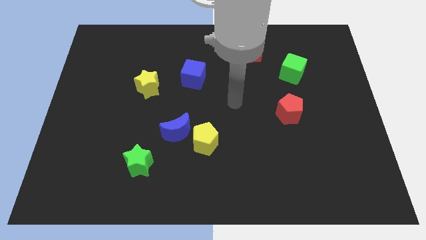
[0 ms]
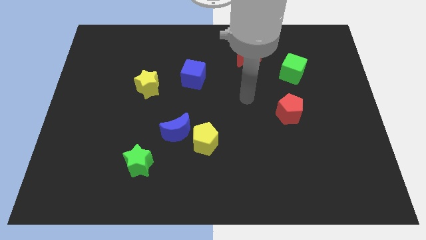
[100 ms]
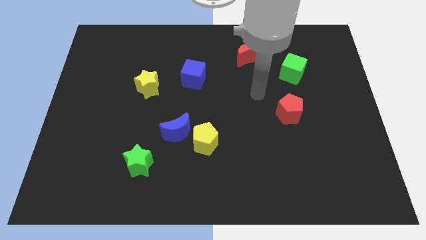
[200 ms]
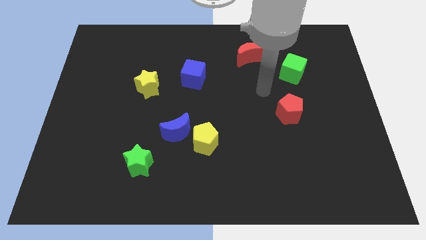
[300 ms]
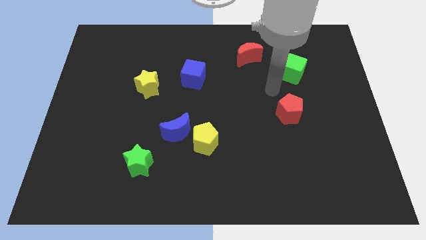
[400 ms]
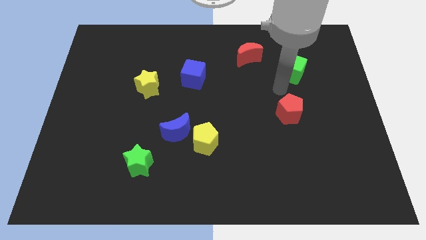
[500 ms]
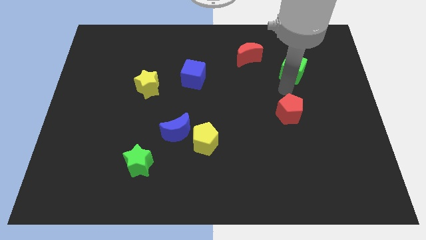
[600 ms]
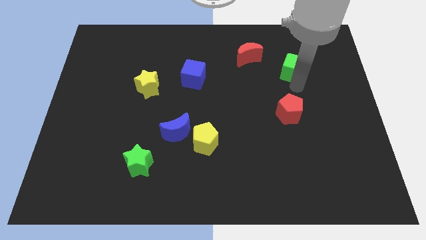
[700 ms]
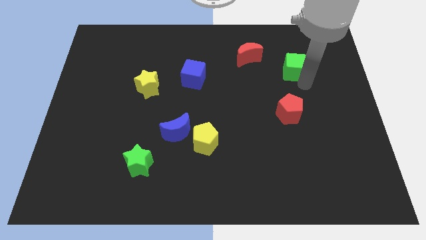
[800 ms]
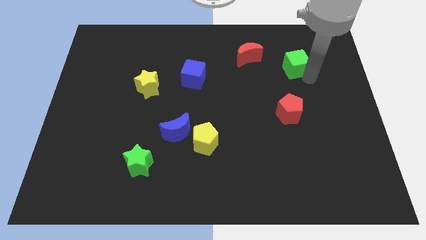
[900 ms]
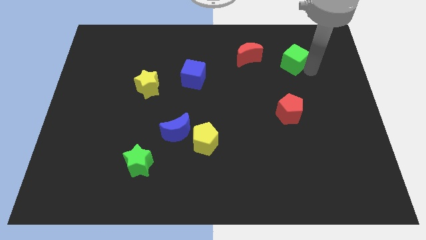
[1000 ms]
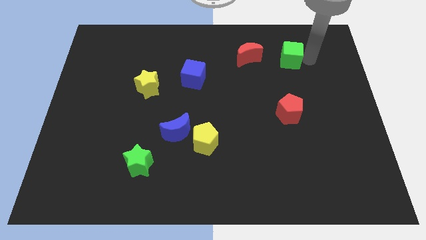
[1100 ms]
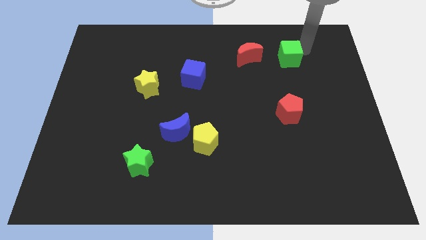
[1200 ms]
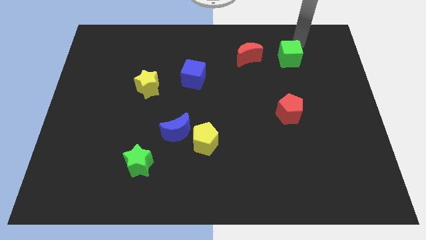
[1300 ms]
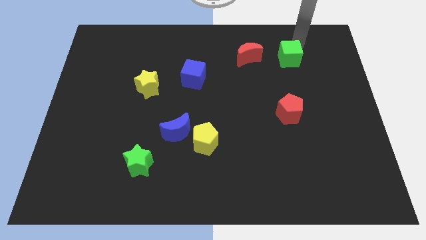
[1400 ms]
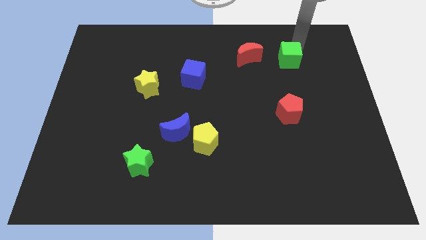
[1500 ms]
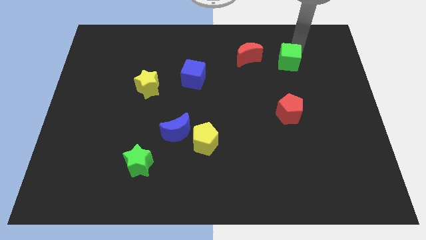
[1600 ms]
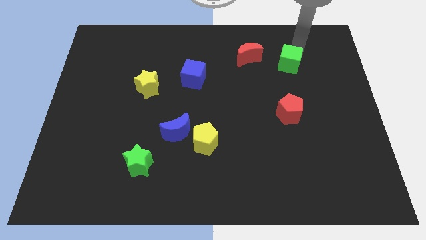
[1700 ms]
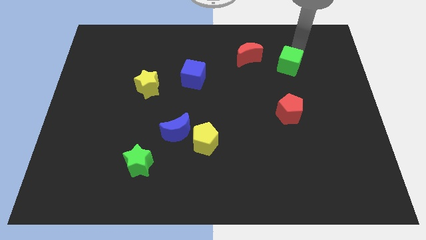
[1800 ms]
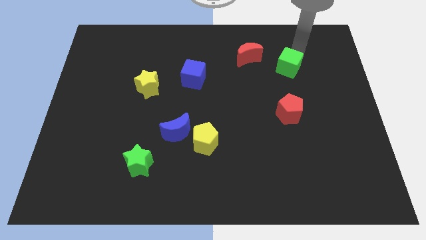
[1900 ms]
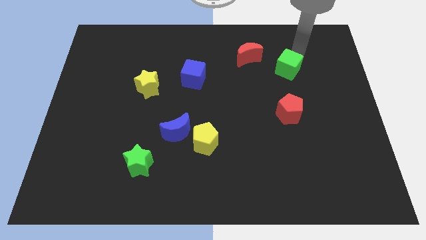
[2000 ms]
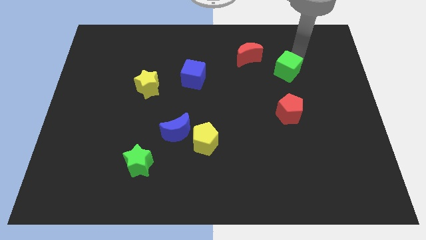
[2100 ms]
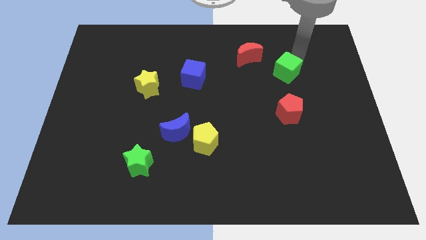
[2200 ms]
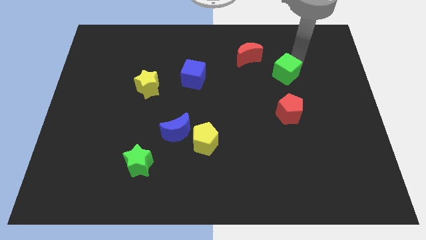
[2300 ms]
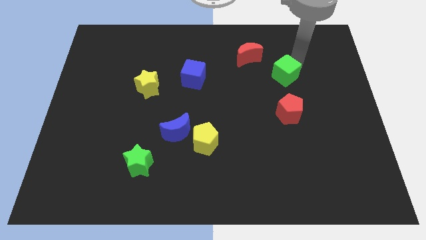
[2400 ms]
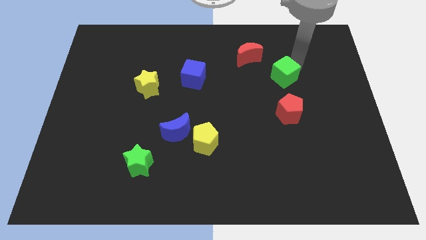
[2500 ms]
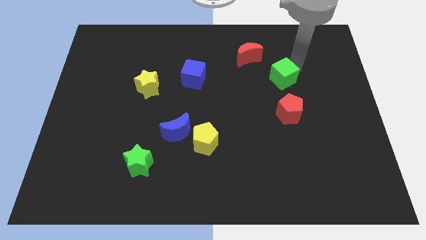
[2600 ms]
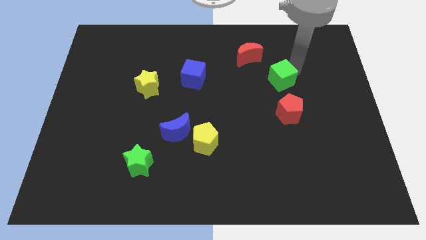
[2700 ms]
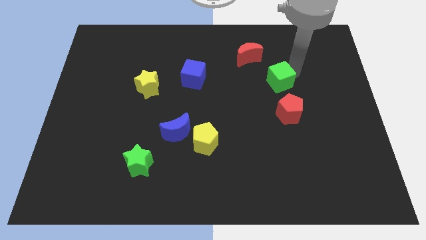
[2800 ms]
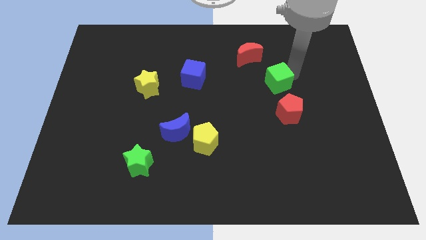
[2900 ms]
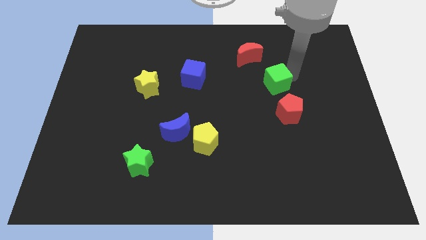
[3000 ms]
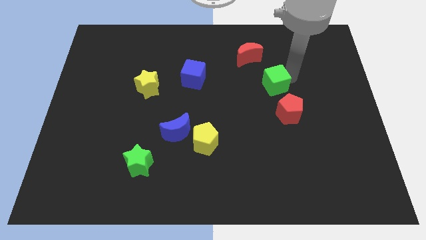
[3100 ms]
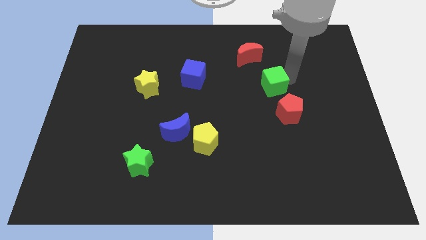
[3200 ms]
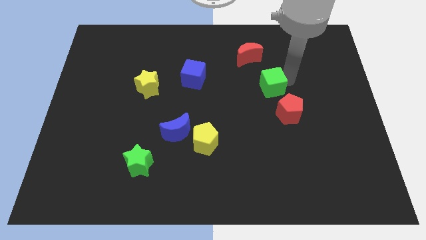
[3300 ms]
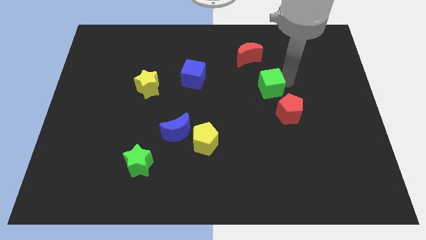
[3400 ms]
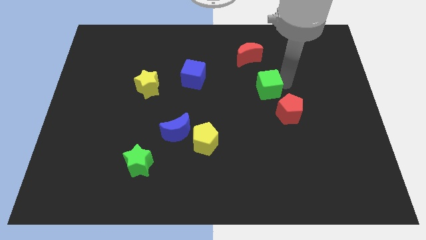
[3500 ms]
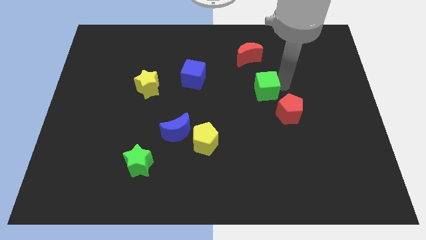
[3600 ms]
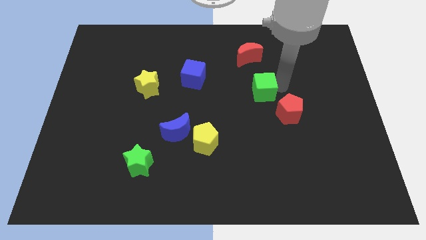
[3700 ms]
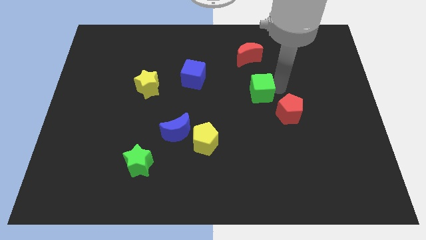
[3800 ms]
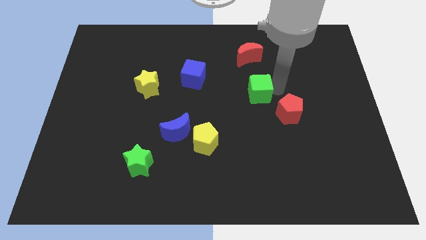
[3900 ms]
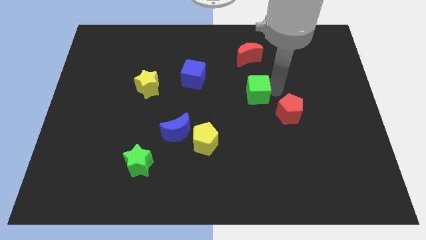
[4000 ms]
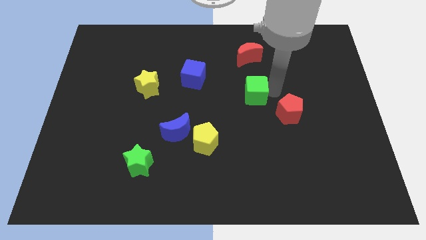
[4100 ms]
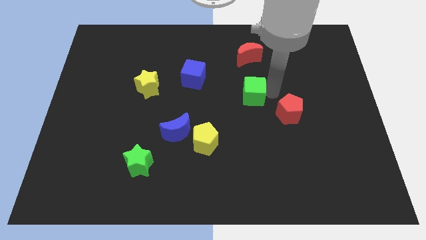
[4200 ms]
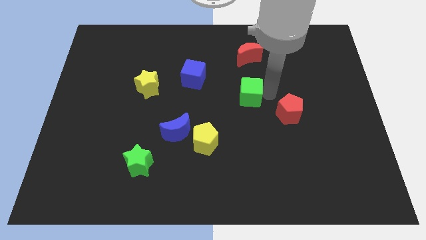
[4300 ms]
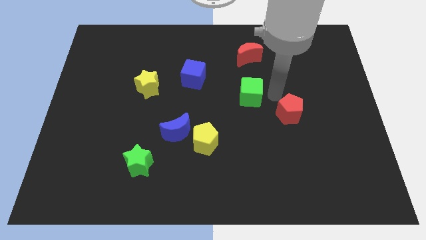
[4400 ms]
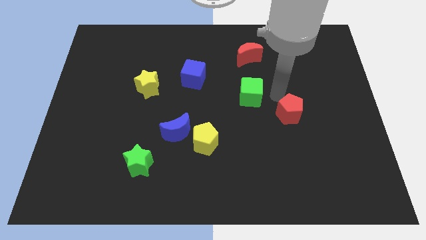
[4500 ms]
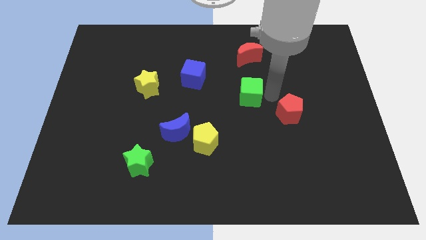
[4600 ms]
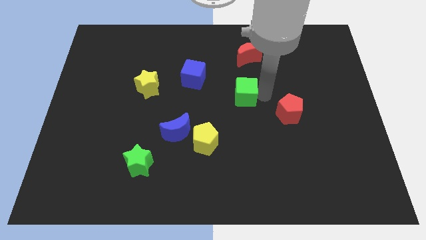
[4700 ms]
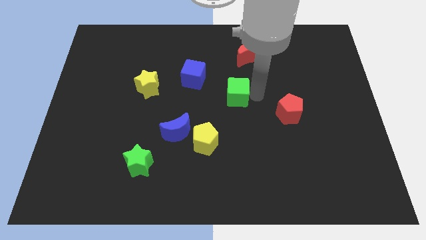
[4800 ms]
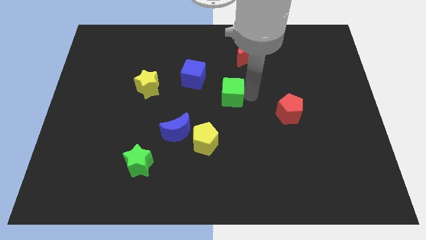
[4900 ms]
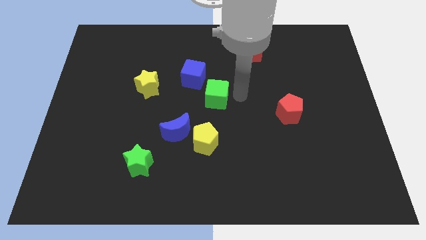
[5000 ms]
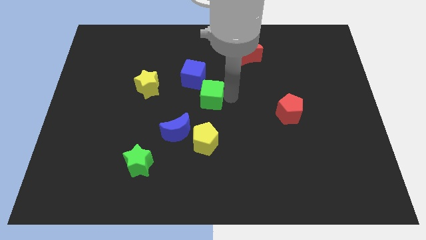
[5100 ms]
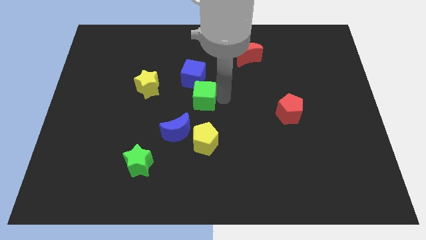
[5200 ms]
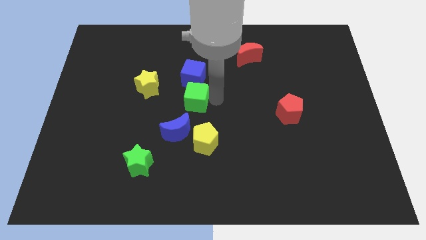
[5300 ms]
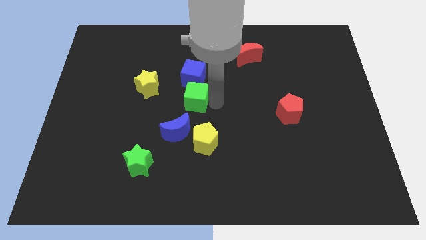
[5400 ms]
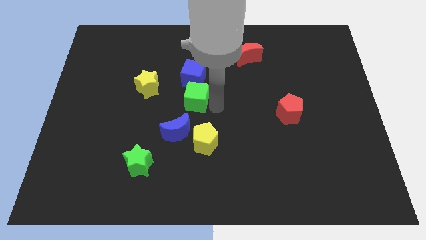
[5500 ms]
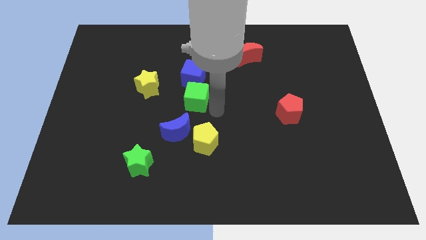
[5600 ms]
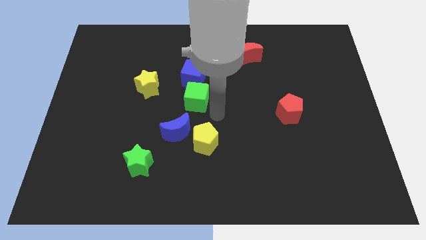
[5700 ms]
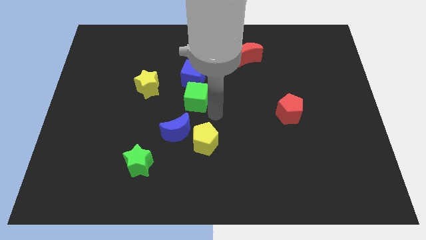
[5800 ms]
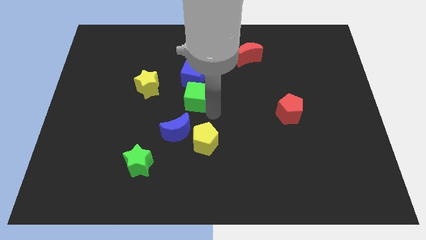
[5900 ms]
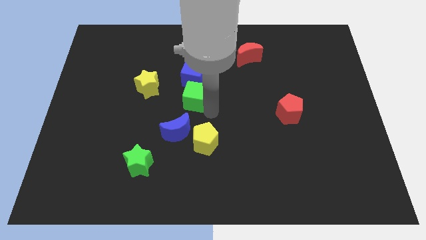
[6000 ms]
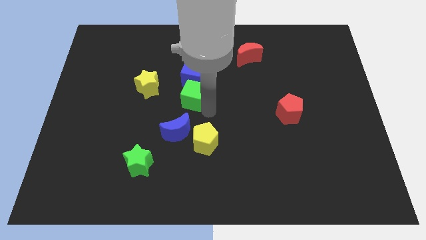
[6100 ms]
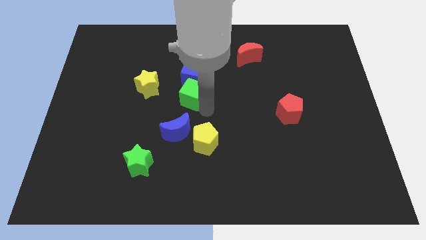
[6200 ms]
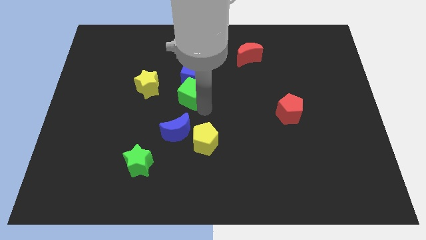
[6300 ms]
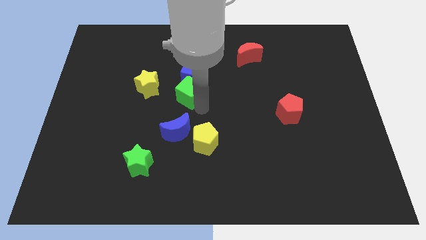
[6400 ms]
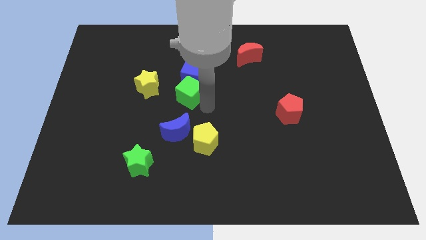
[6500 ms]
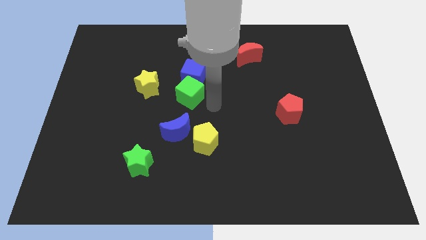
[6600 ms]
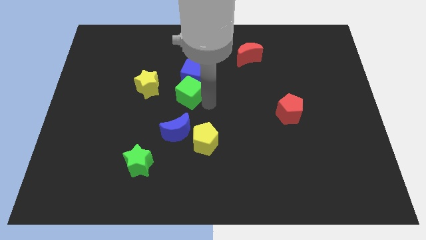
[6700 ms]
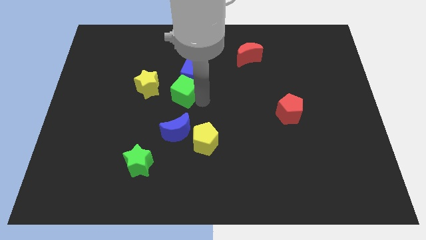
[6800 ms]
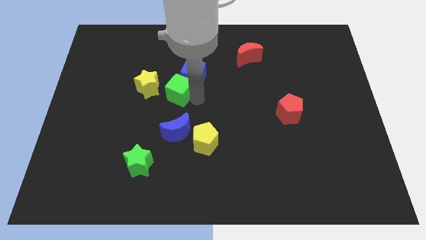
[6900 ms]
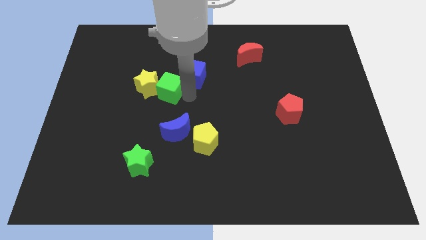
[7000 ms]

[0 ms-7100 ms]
slide the green cube close to the yellow star
